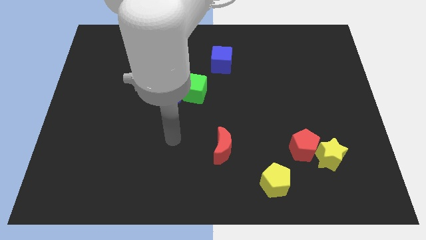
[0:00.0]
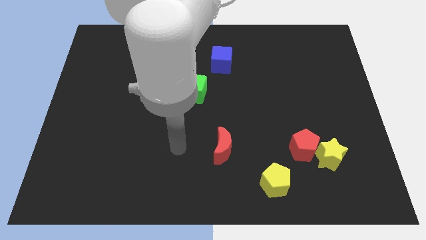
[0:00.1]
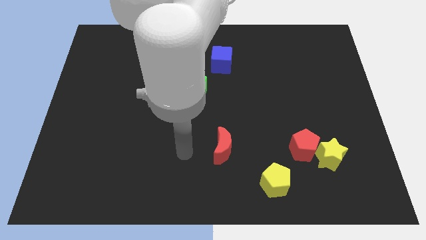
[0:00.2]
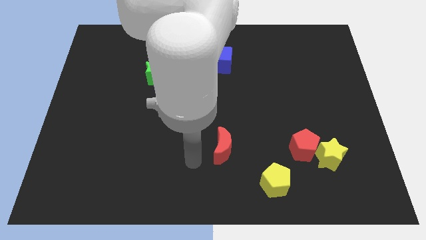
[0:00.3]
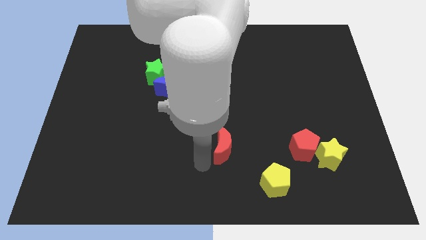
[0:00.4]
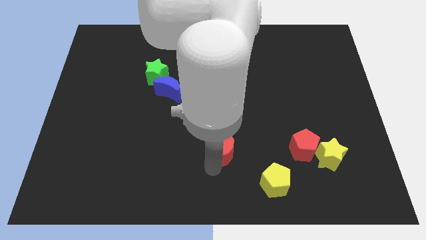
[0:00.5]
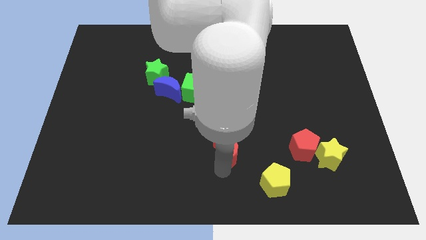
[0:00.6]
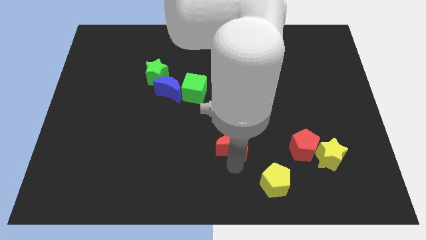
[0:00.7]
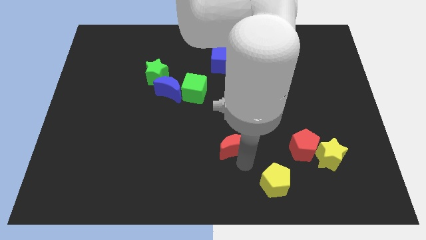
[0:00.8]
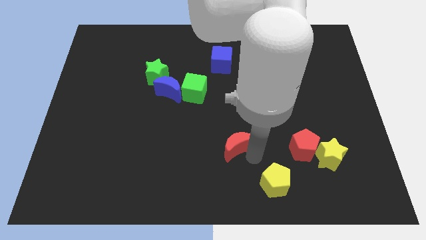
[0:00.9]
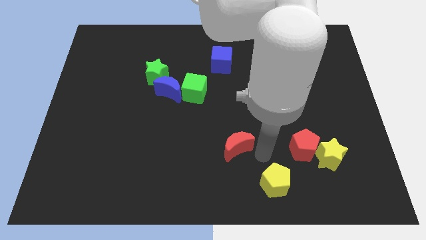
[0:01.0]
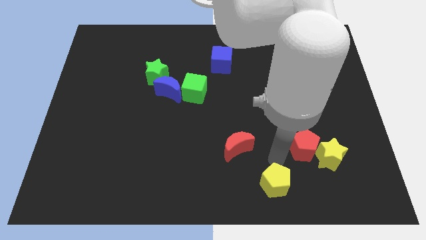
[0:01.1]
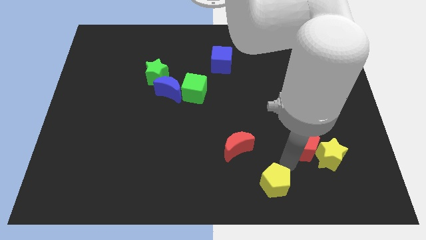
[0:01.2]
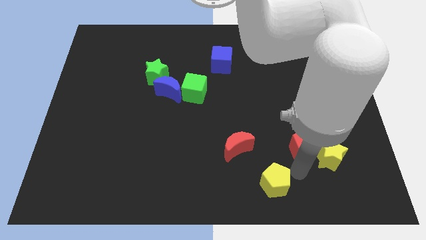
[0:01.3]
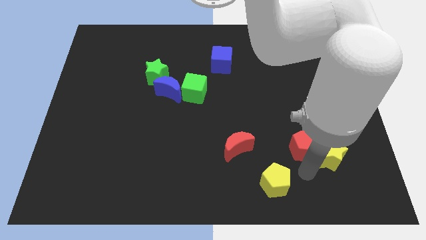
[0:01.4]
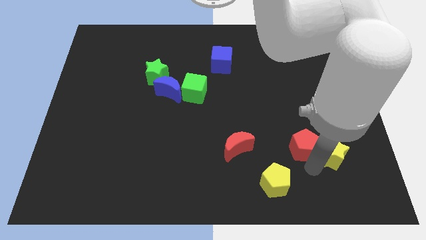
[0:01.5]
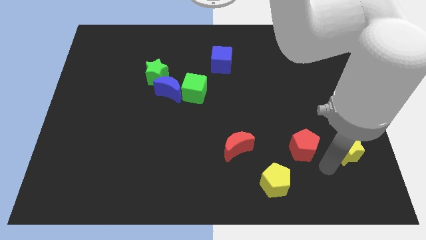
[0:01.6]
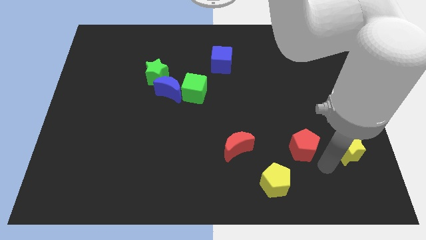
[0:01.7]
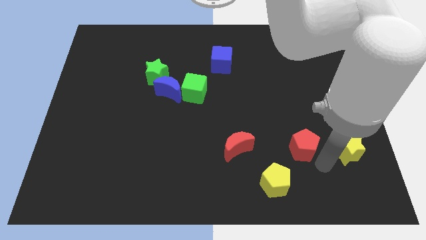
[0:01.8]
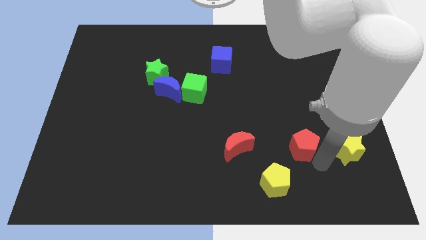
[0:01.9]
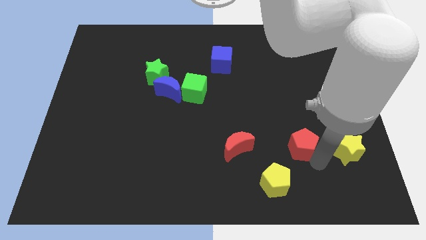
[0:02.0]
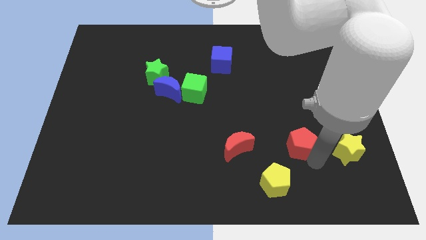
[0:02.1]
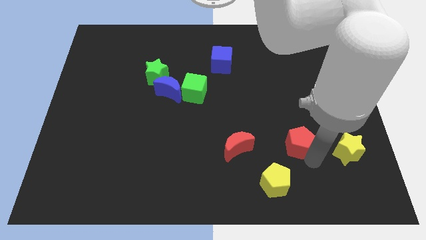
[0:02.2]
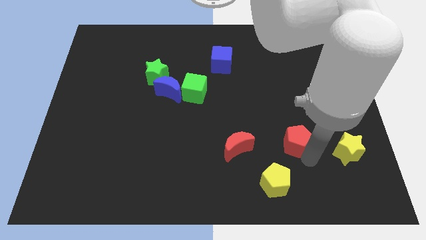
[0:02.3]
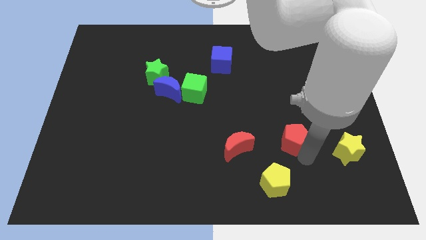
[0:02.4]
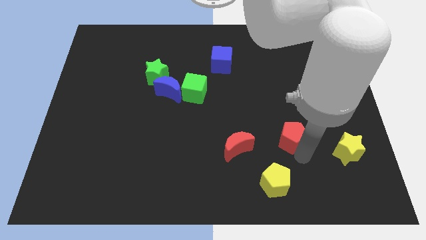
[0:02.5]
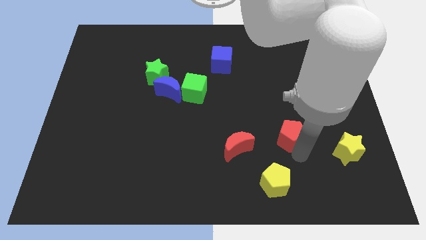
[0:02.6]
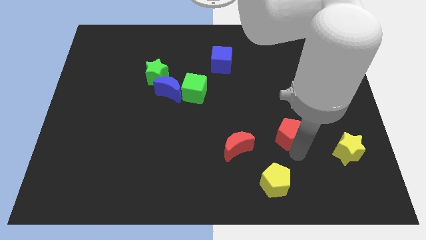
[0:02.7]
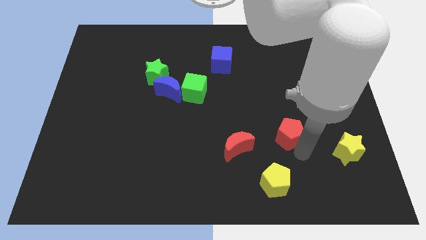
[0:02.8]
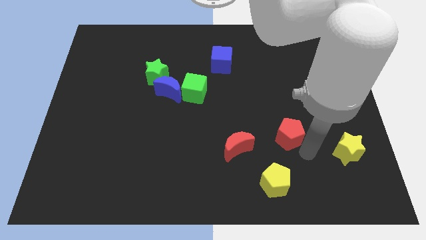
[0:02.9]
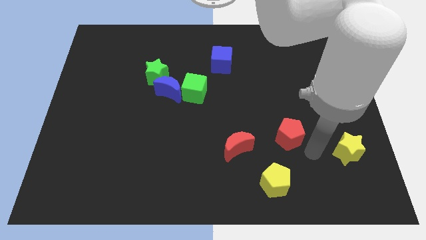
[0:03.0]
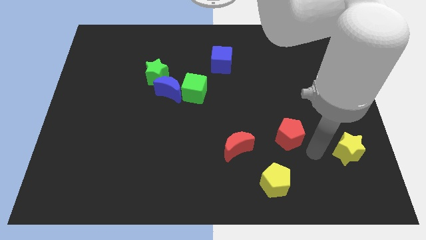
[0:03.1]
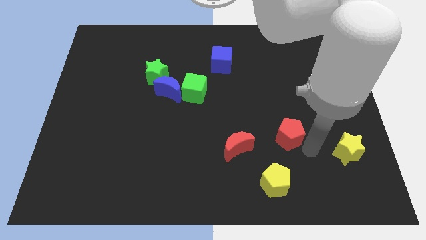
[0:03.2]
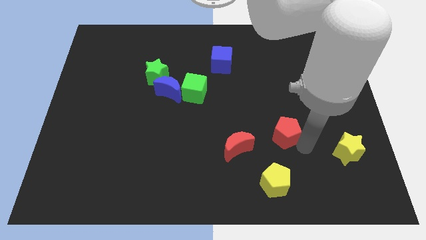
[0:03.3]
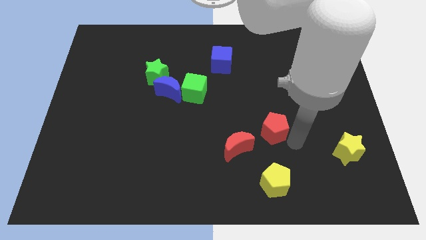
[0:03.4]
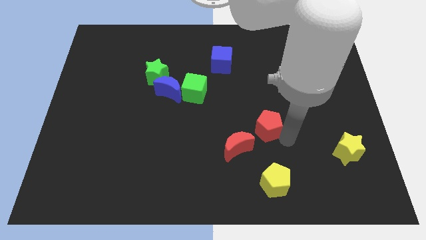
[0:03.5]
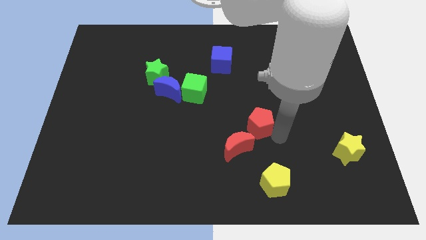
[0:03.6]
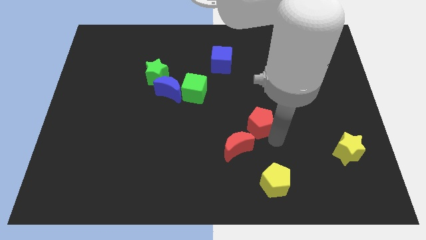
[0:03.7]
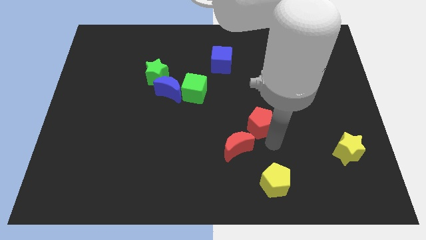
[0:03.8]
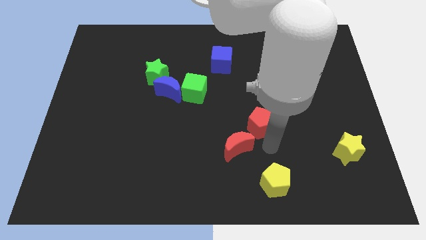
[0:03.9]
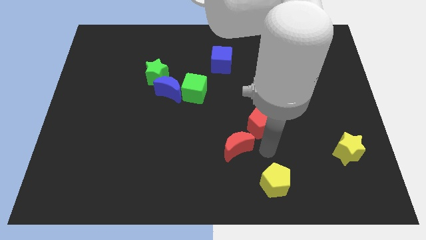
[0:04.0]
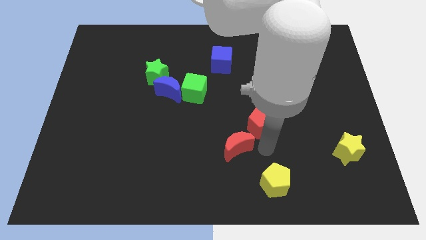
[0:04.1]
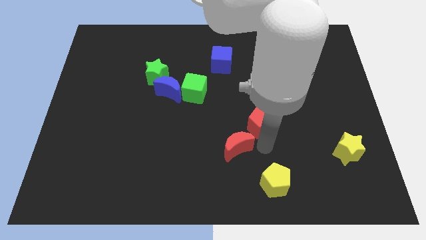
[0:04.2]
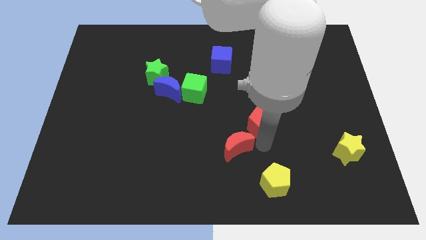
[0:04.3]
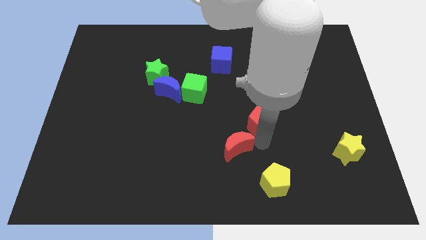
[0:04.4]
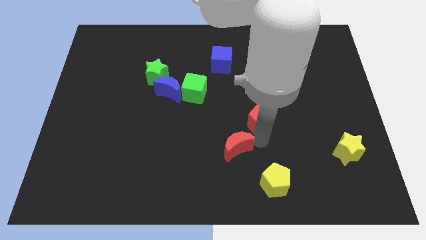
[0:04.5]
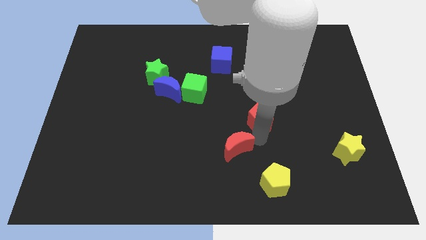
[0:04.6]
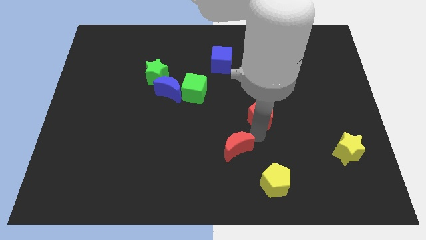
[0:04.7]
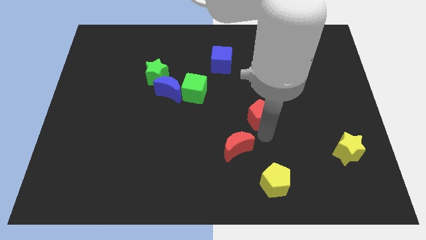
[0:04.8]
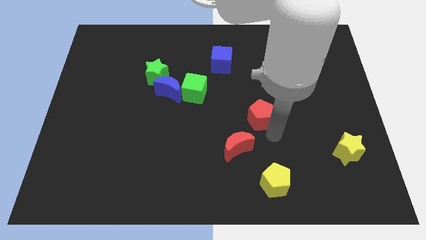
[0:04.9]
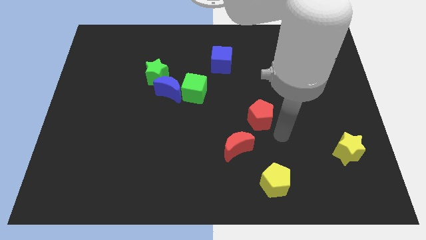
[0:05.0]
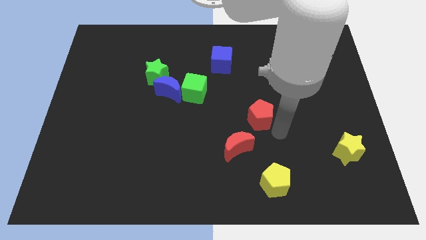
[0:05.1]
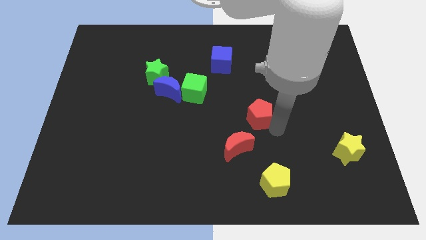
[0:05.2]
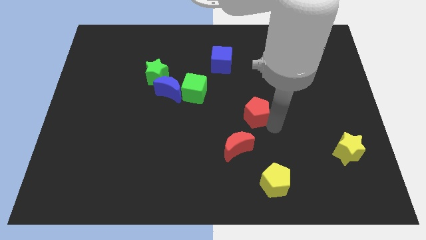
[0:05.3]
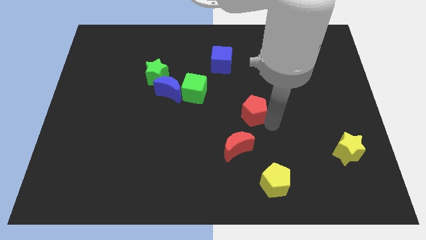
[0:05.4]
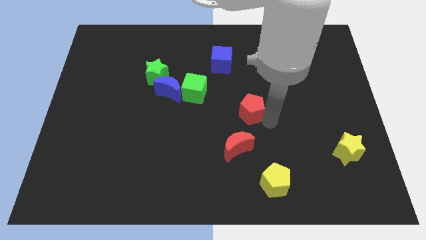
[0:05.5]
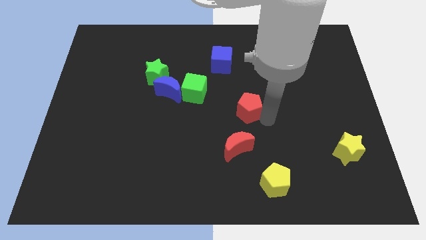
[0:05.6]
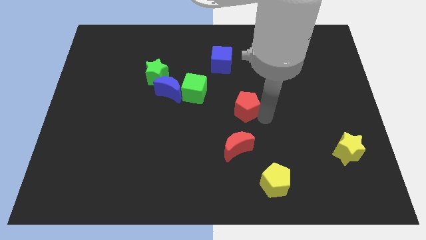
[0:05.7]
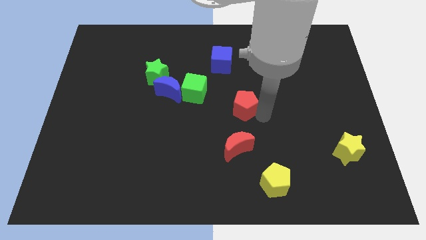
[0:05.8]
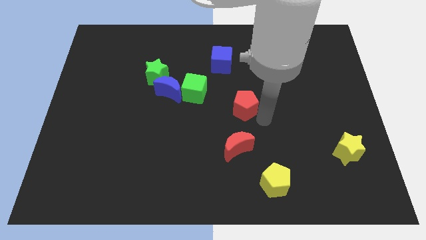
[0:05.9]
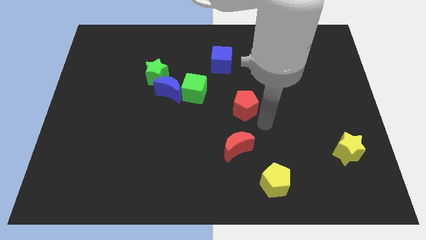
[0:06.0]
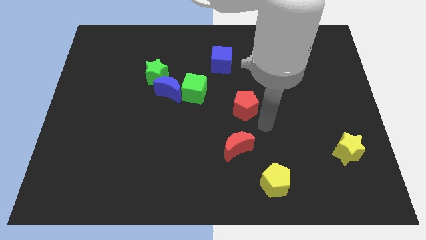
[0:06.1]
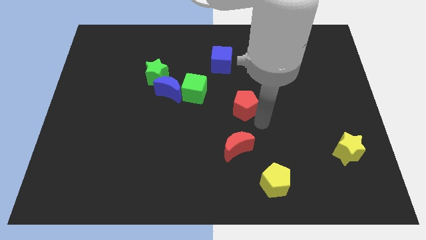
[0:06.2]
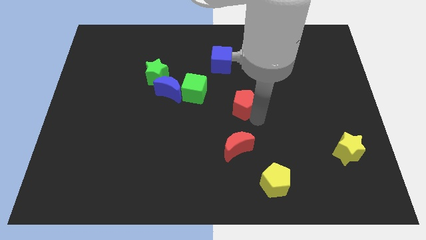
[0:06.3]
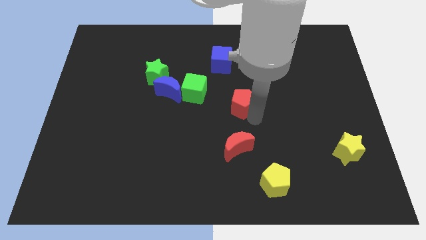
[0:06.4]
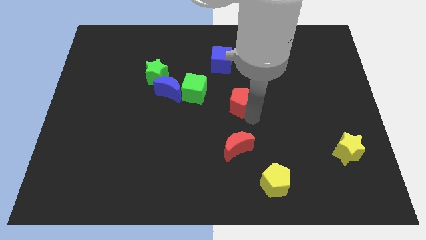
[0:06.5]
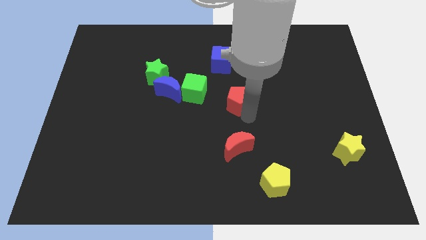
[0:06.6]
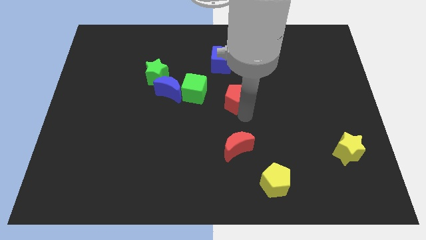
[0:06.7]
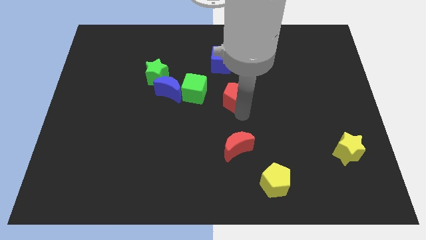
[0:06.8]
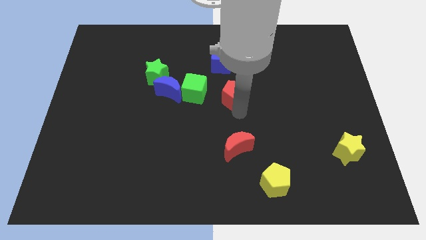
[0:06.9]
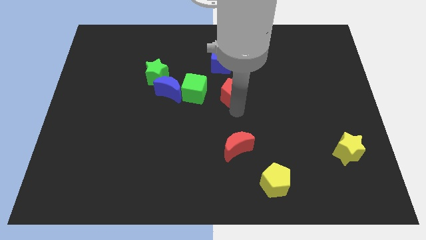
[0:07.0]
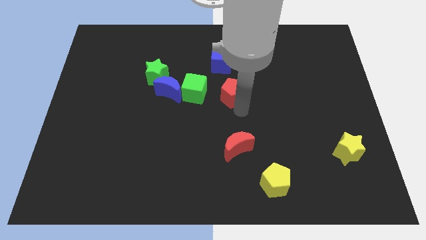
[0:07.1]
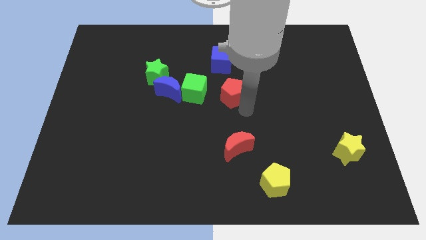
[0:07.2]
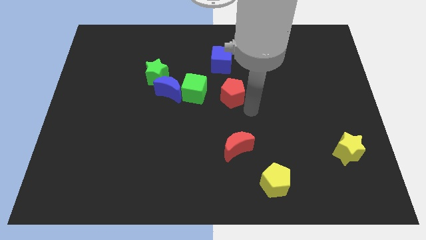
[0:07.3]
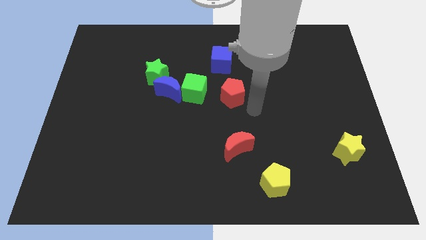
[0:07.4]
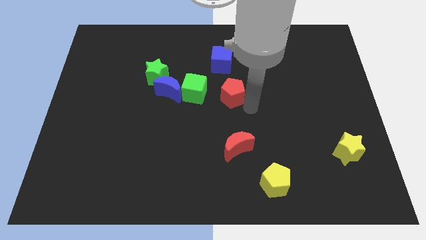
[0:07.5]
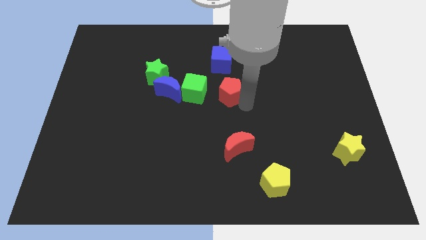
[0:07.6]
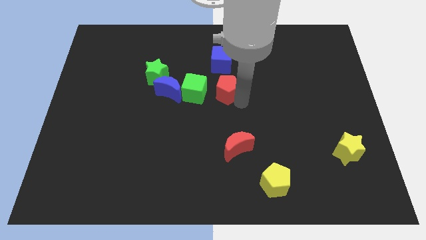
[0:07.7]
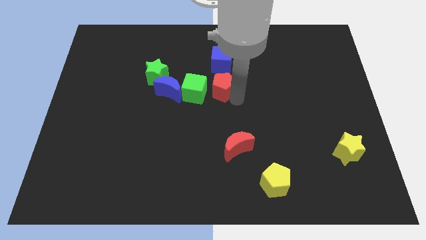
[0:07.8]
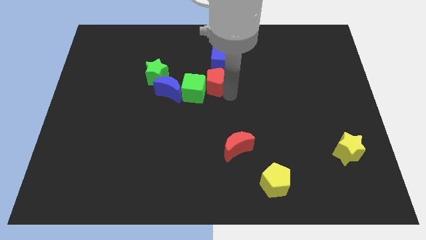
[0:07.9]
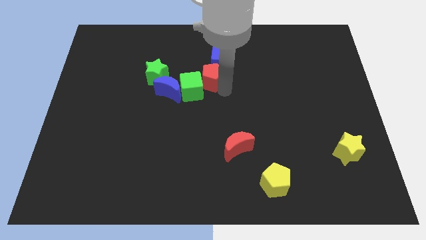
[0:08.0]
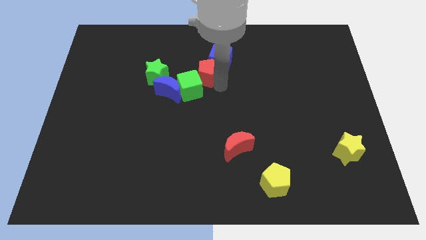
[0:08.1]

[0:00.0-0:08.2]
push the red pentagon to the top right side of the blue moon
